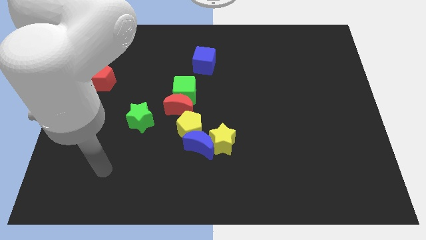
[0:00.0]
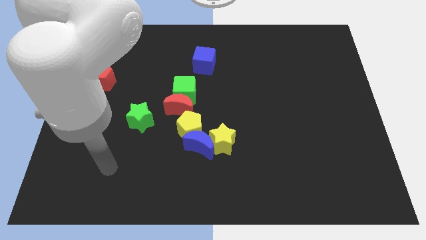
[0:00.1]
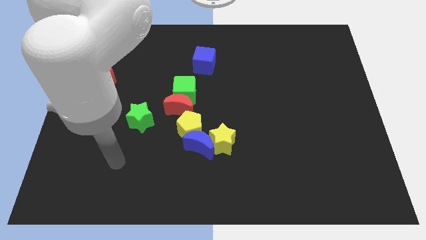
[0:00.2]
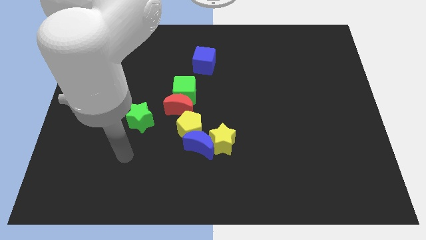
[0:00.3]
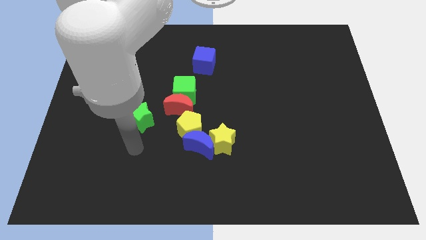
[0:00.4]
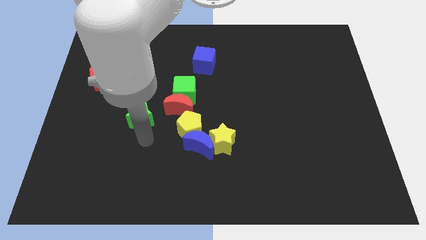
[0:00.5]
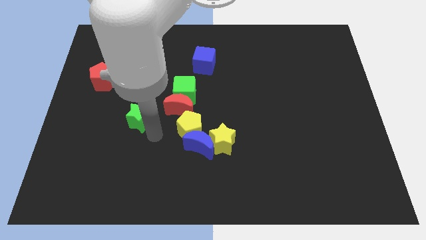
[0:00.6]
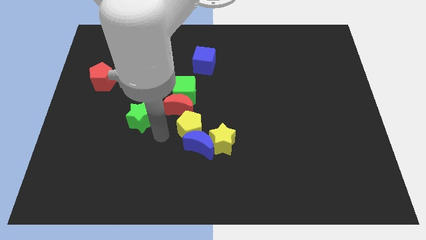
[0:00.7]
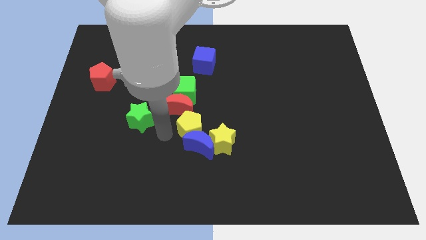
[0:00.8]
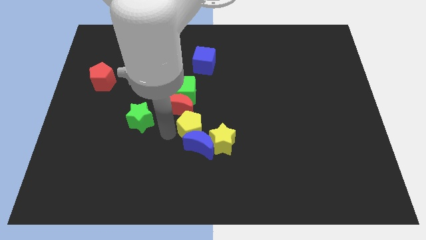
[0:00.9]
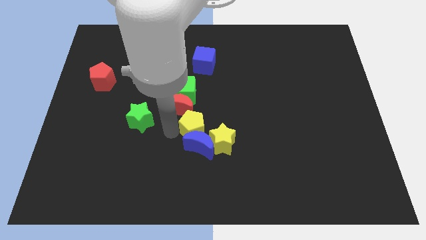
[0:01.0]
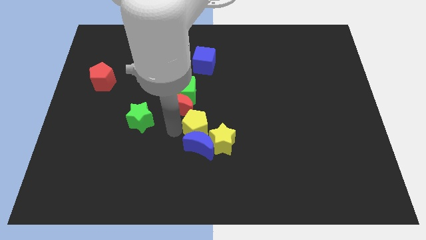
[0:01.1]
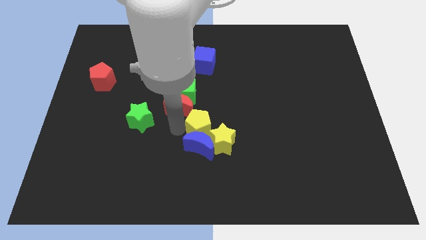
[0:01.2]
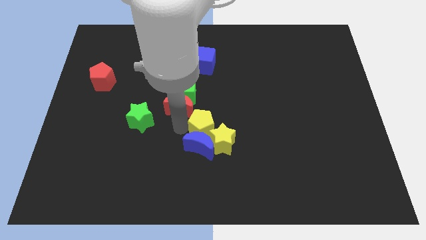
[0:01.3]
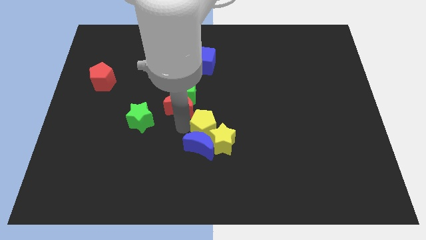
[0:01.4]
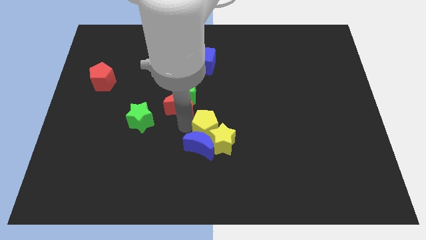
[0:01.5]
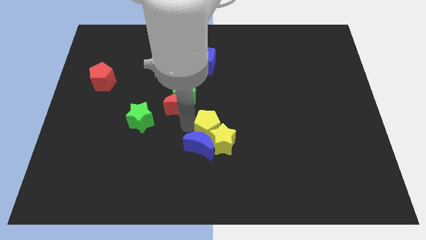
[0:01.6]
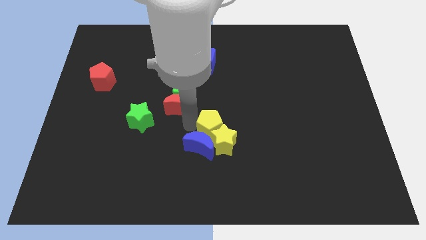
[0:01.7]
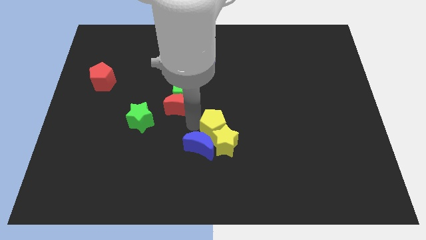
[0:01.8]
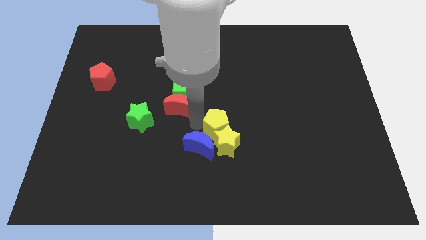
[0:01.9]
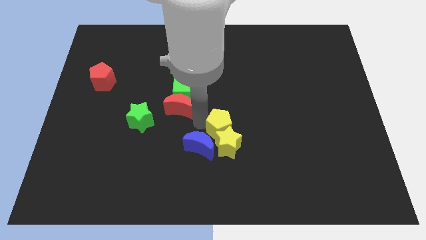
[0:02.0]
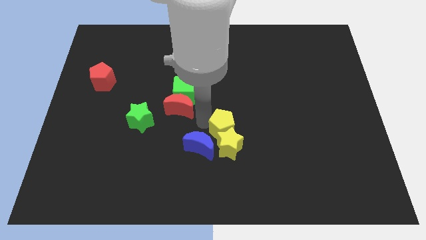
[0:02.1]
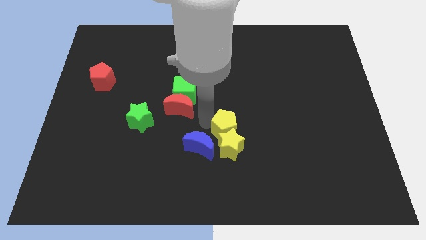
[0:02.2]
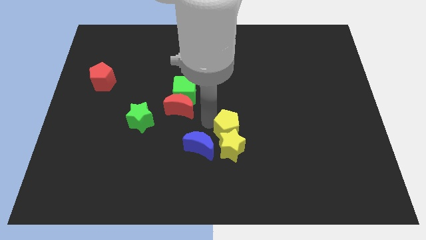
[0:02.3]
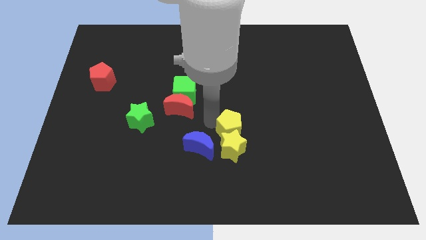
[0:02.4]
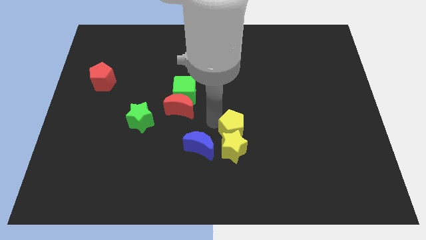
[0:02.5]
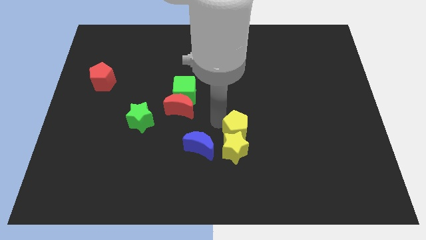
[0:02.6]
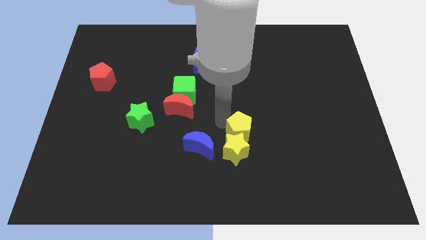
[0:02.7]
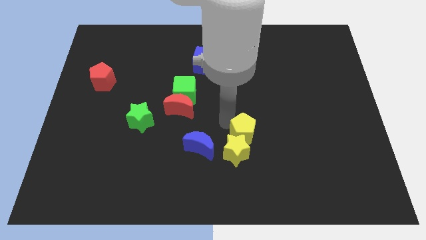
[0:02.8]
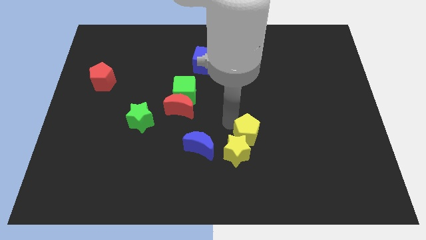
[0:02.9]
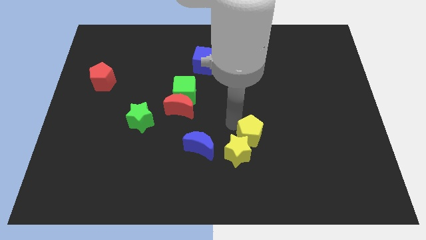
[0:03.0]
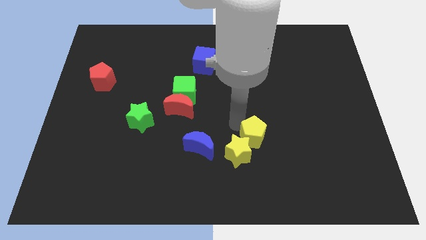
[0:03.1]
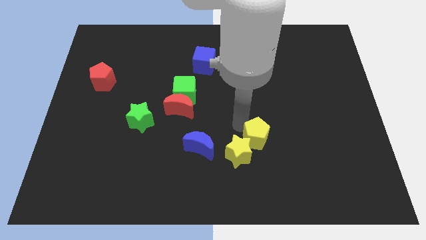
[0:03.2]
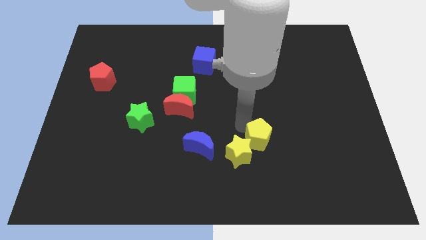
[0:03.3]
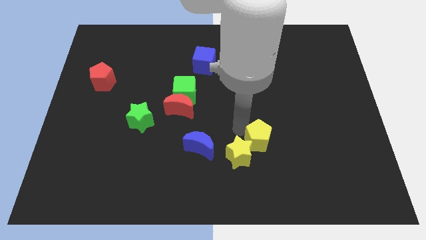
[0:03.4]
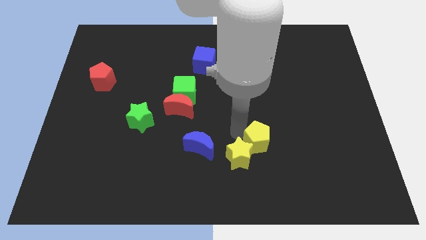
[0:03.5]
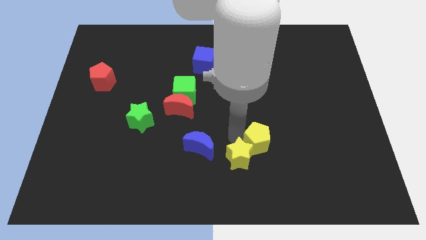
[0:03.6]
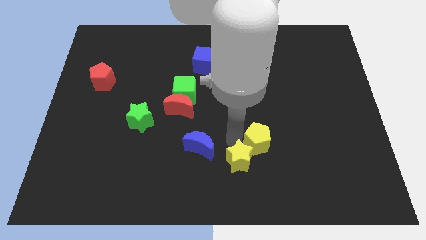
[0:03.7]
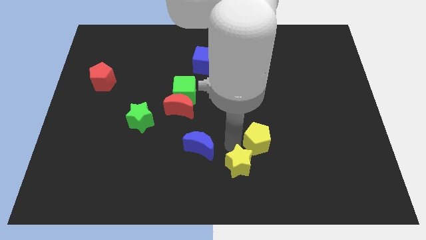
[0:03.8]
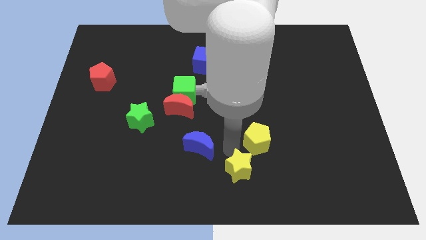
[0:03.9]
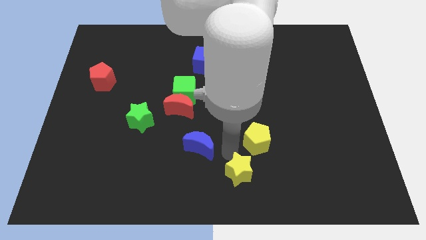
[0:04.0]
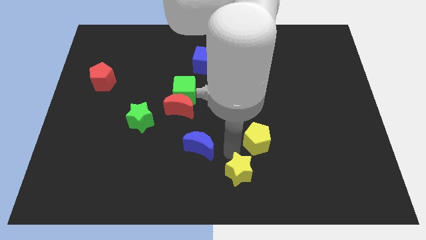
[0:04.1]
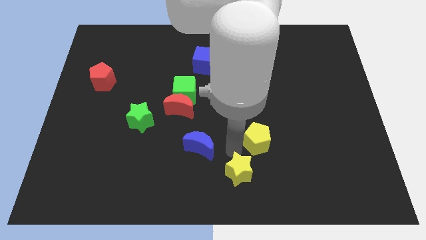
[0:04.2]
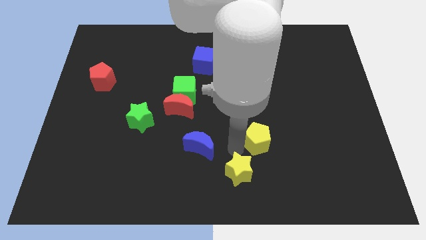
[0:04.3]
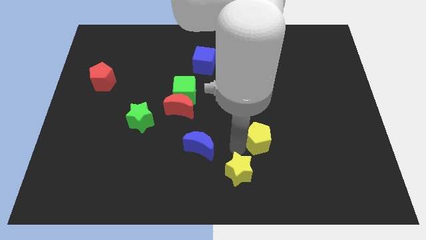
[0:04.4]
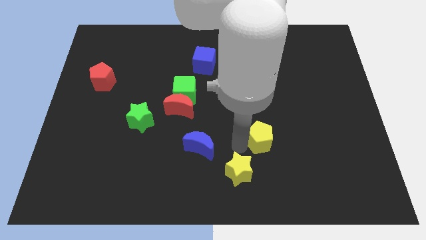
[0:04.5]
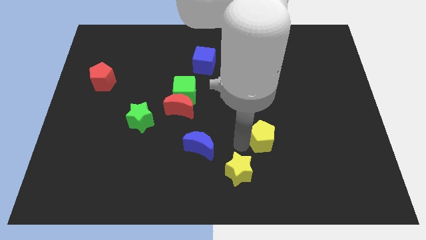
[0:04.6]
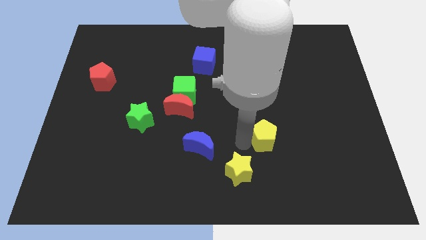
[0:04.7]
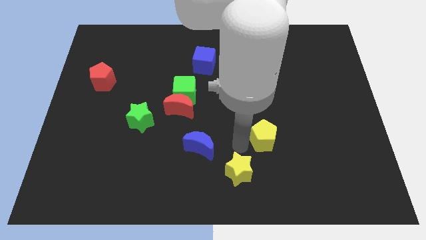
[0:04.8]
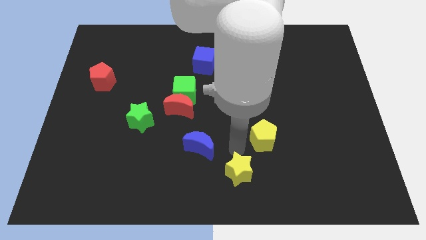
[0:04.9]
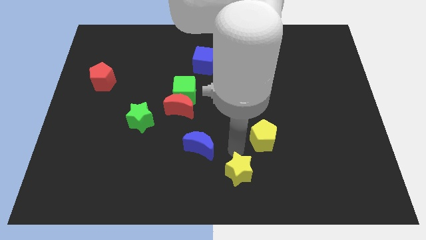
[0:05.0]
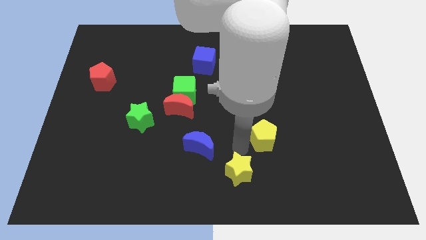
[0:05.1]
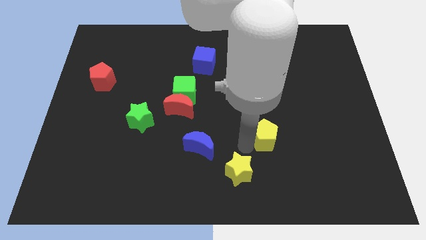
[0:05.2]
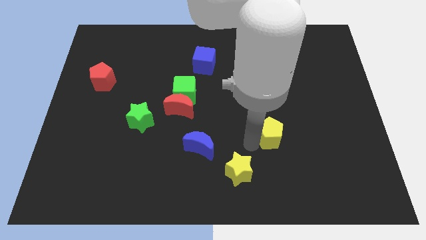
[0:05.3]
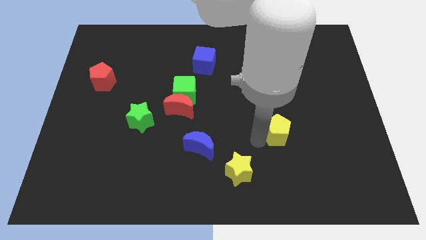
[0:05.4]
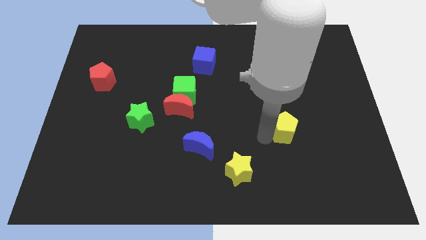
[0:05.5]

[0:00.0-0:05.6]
push the yellow pentagon to the right

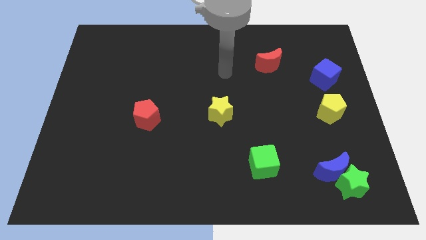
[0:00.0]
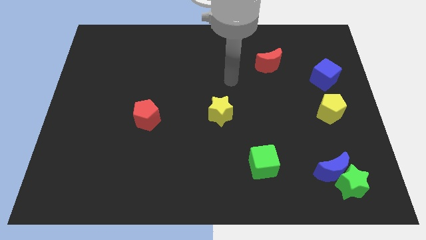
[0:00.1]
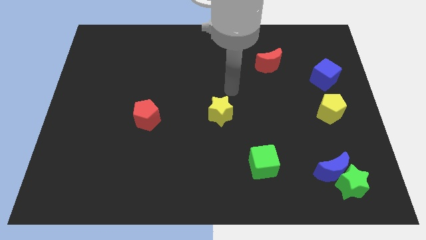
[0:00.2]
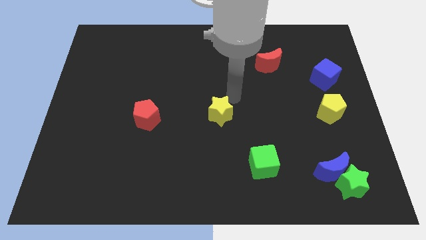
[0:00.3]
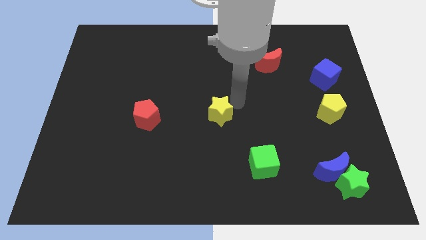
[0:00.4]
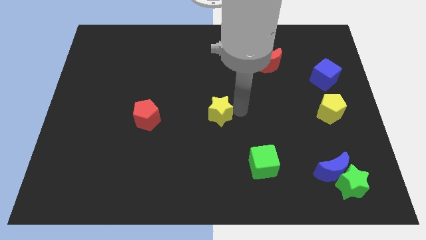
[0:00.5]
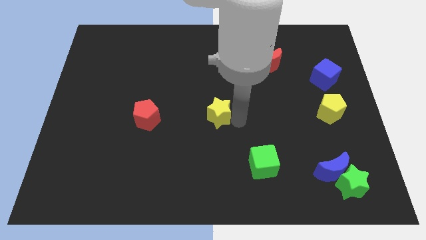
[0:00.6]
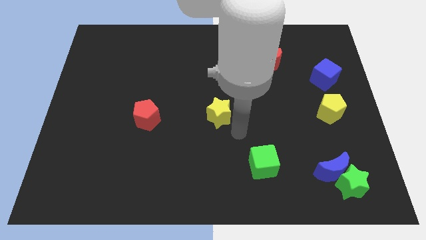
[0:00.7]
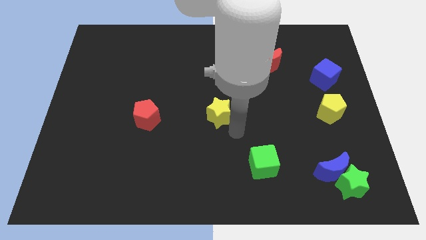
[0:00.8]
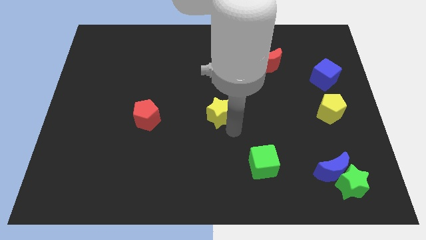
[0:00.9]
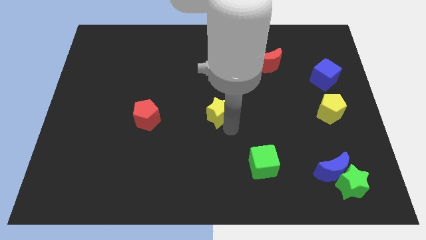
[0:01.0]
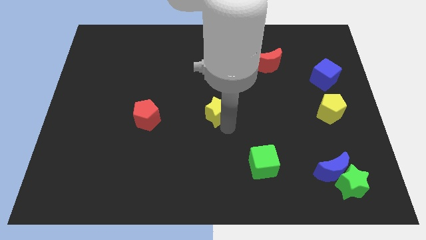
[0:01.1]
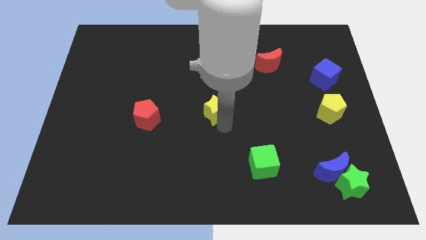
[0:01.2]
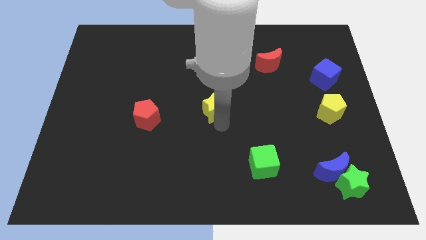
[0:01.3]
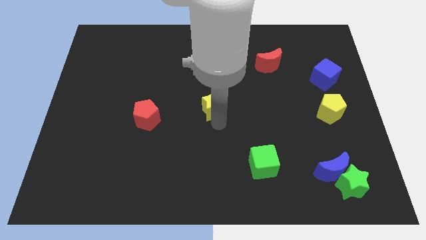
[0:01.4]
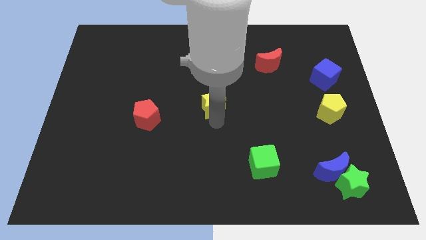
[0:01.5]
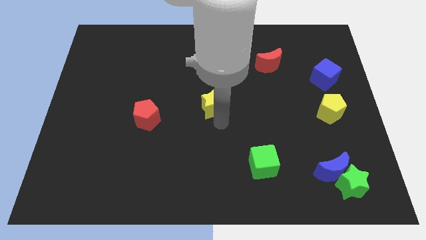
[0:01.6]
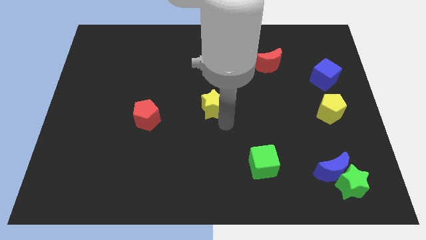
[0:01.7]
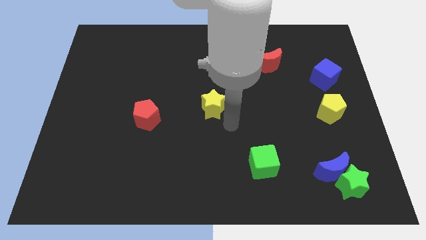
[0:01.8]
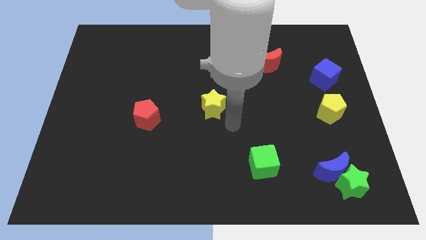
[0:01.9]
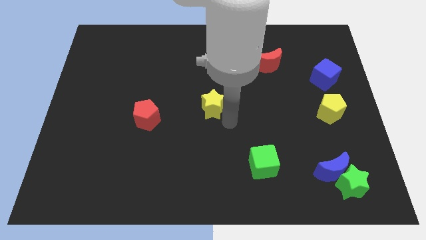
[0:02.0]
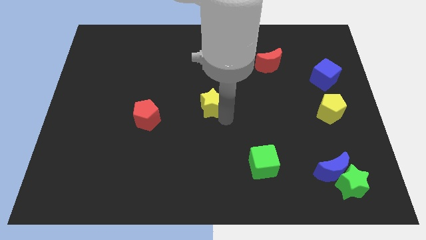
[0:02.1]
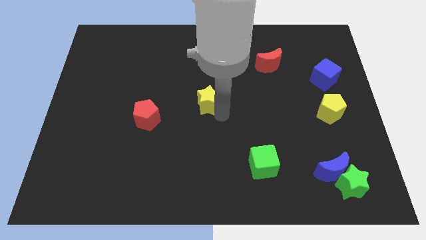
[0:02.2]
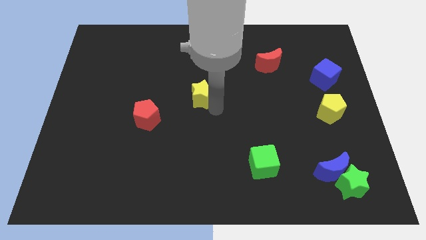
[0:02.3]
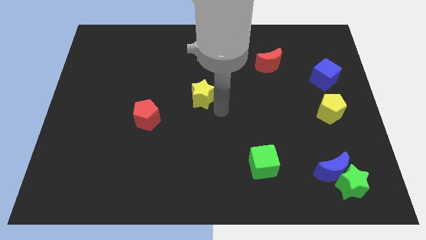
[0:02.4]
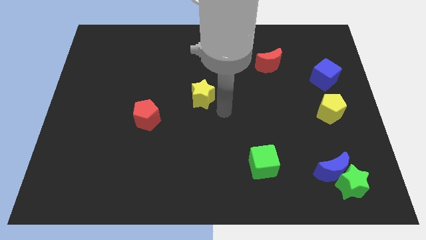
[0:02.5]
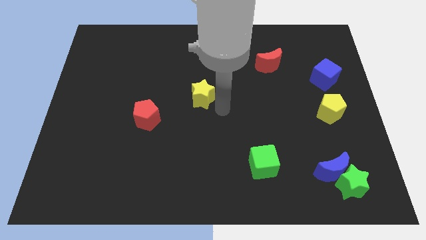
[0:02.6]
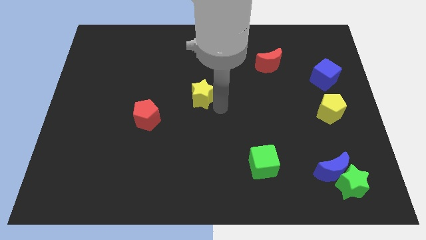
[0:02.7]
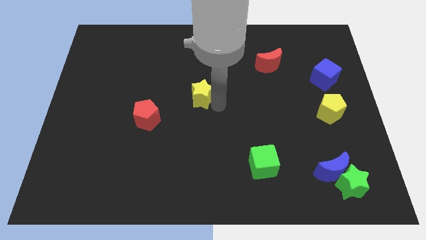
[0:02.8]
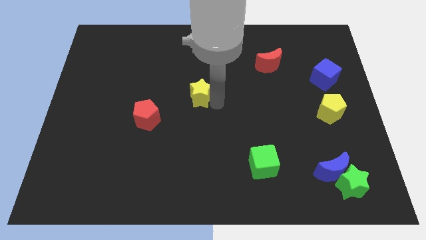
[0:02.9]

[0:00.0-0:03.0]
move the yellow star somewhat upwards and to the left
